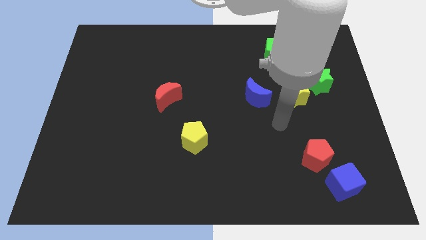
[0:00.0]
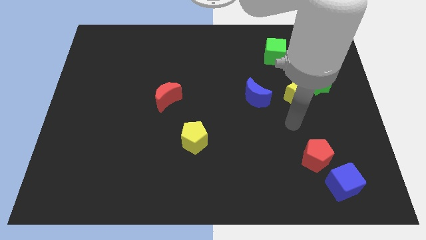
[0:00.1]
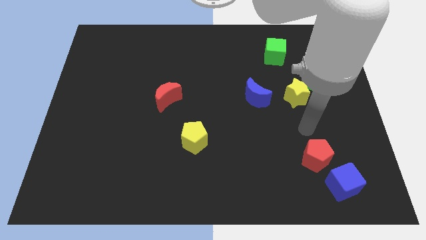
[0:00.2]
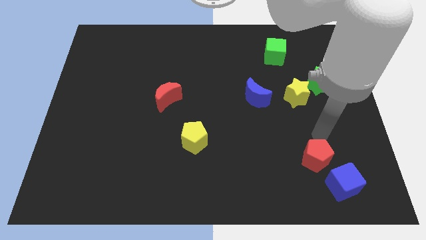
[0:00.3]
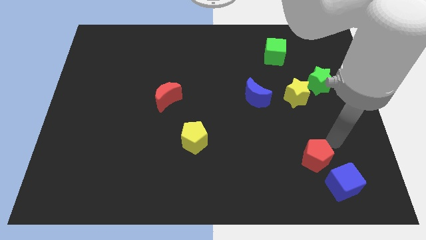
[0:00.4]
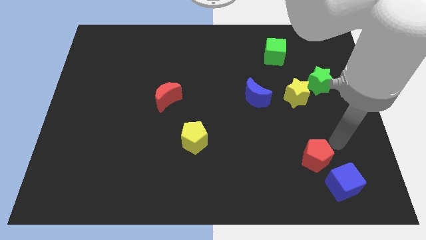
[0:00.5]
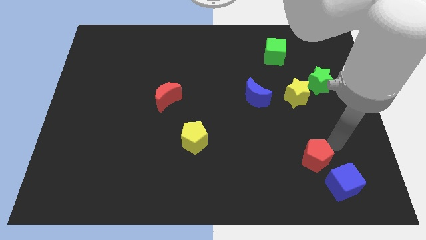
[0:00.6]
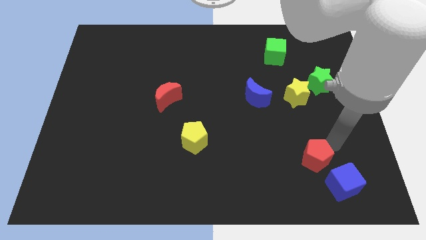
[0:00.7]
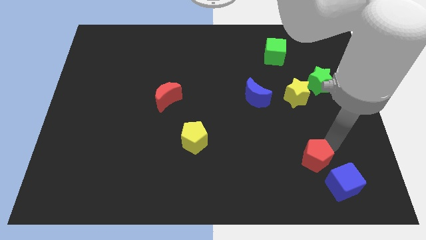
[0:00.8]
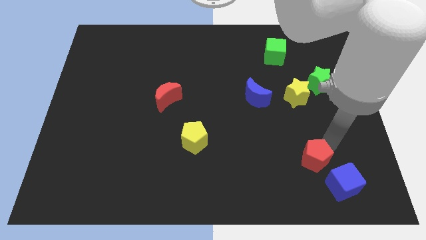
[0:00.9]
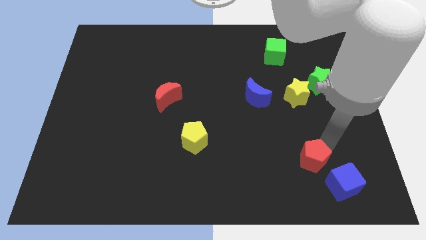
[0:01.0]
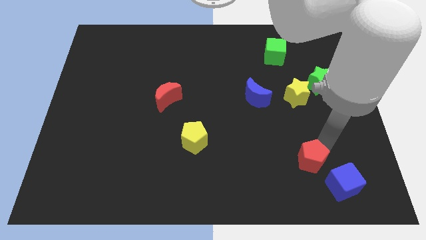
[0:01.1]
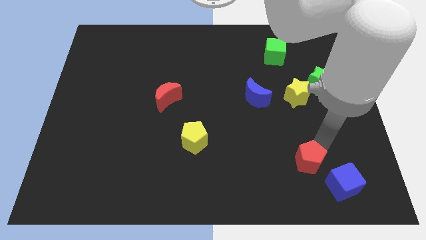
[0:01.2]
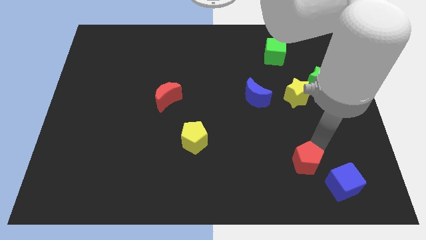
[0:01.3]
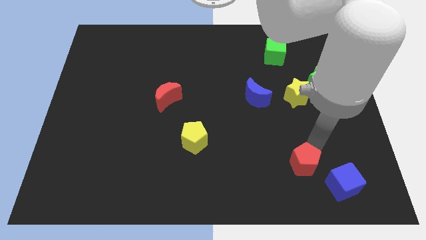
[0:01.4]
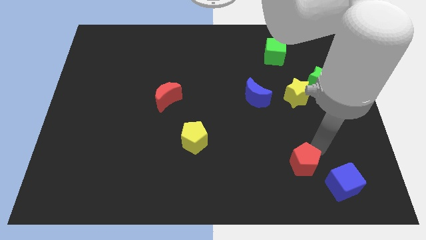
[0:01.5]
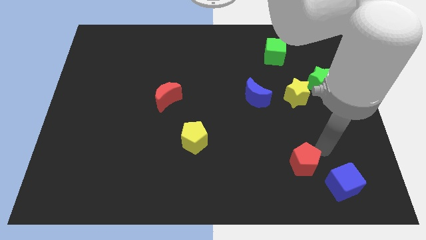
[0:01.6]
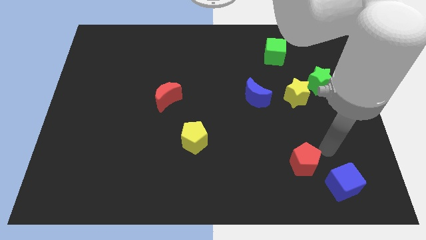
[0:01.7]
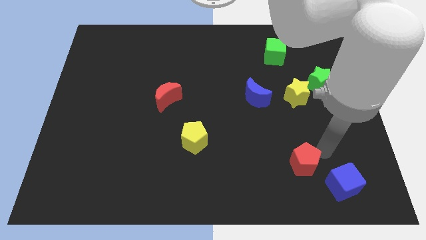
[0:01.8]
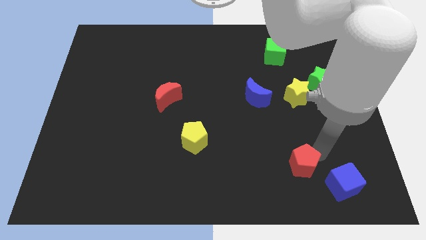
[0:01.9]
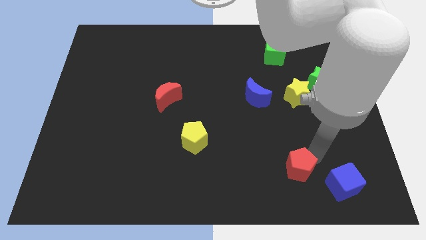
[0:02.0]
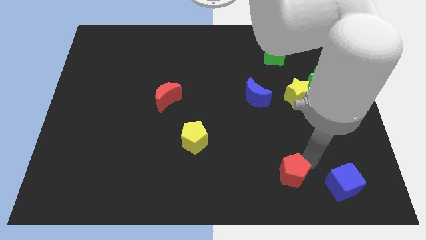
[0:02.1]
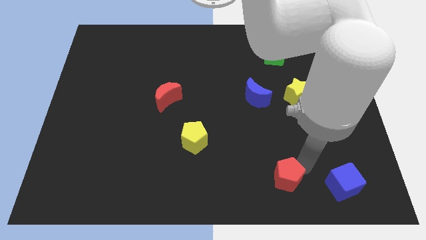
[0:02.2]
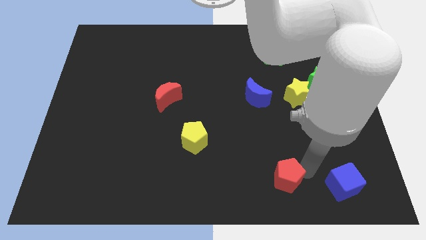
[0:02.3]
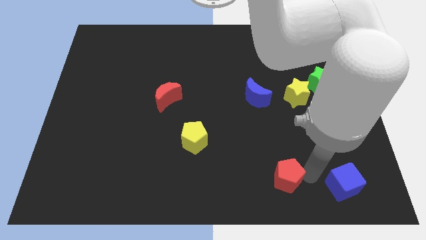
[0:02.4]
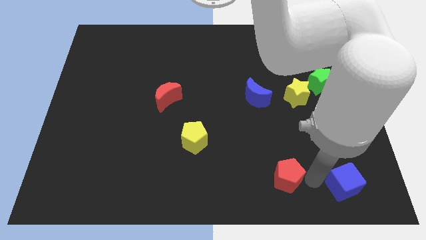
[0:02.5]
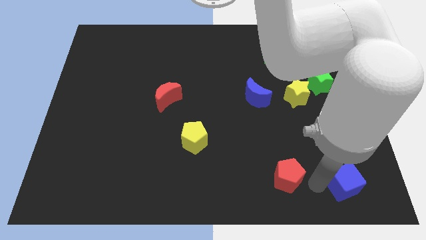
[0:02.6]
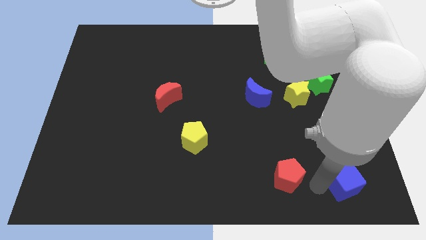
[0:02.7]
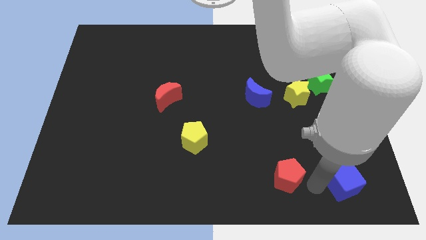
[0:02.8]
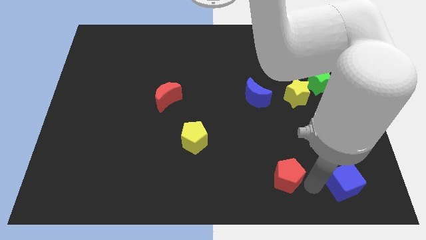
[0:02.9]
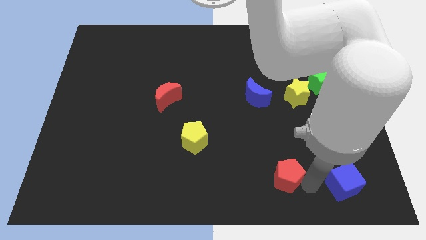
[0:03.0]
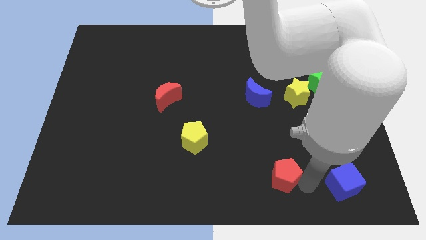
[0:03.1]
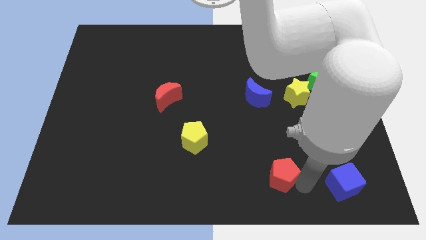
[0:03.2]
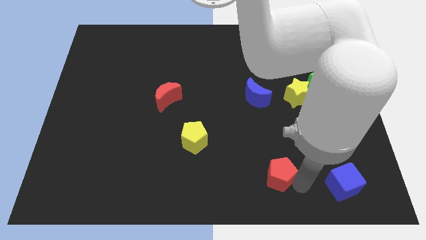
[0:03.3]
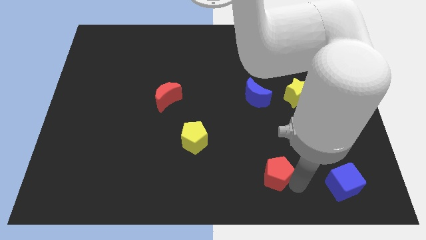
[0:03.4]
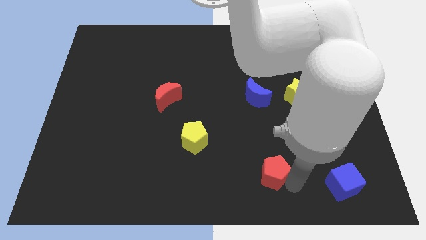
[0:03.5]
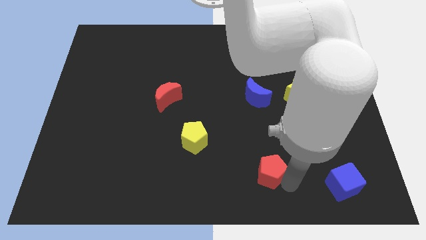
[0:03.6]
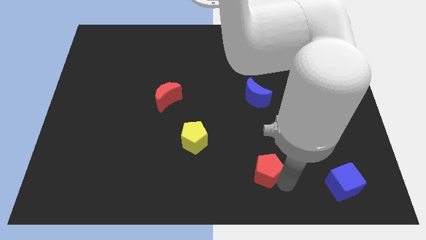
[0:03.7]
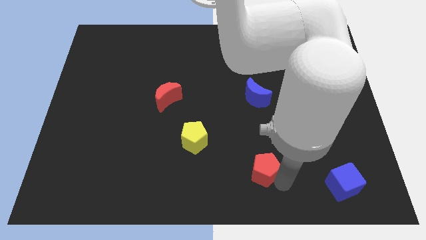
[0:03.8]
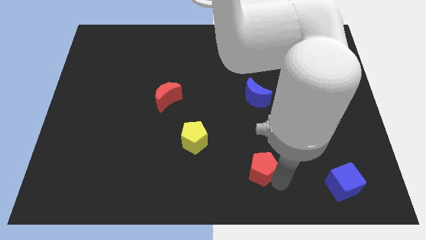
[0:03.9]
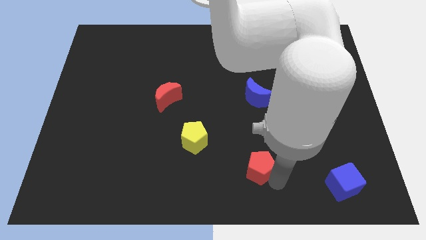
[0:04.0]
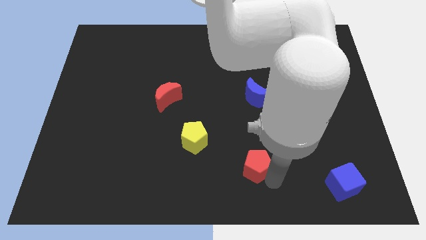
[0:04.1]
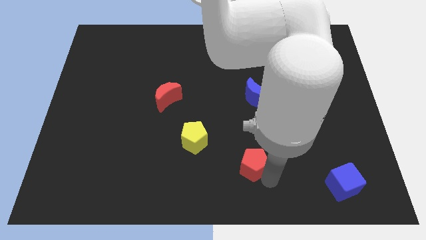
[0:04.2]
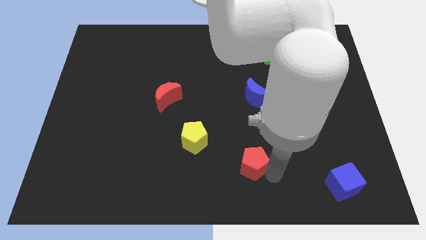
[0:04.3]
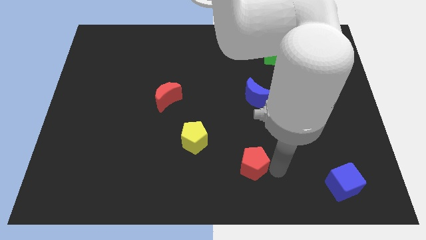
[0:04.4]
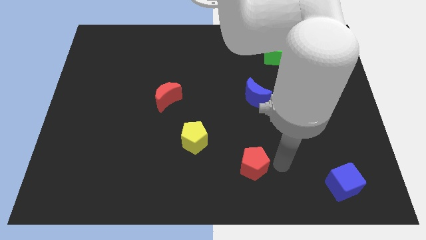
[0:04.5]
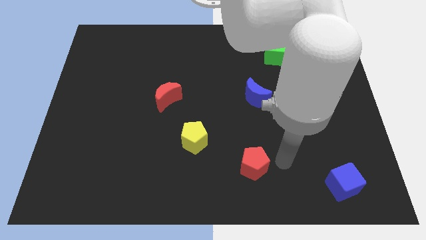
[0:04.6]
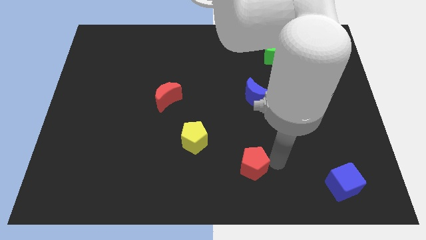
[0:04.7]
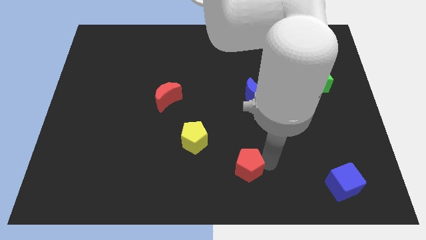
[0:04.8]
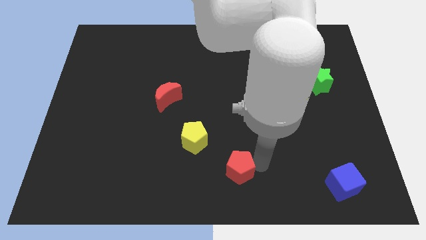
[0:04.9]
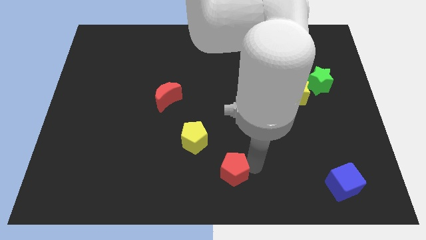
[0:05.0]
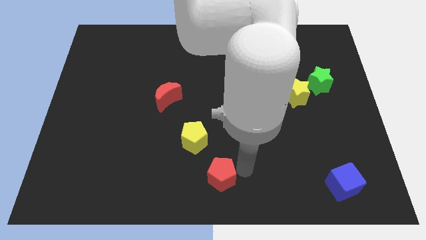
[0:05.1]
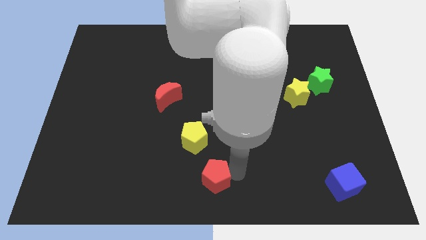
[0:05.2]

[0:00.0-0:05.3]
push the red pentagon left

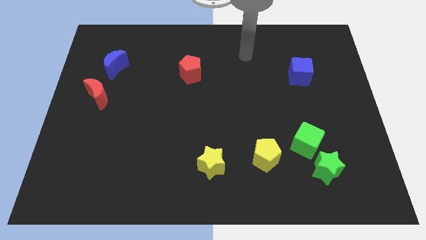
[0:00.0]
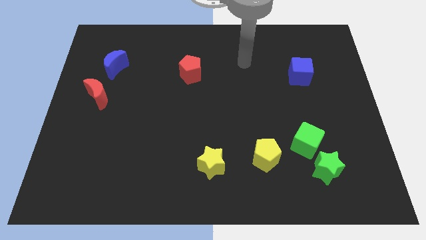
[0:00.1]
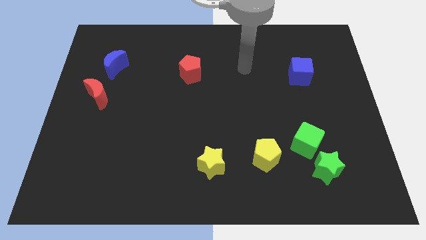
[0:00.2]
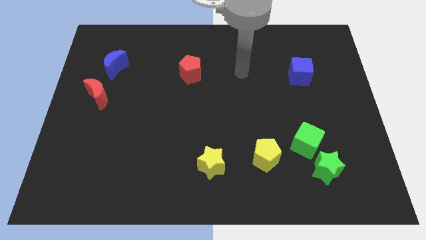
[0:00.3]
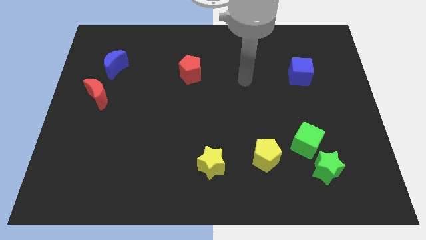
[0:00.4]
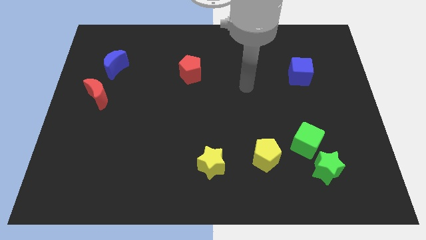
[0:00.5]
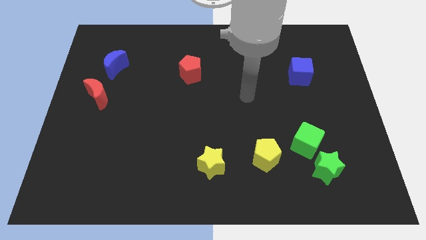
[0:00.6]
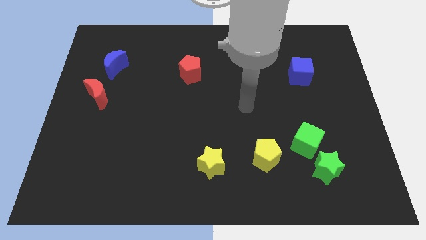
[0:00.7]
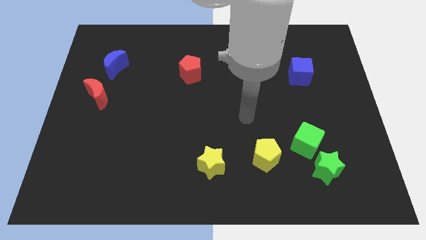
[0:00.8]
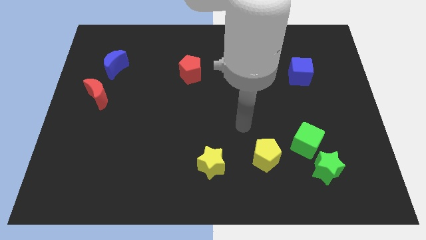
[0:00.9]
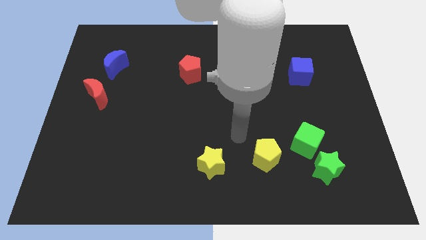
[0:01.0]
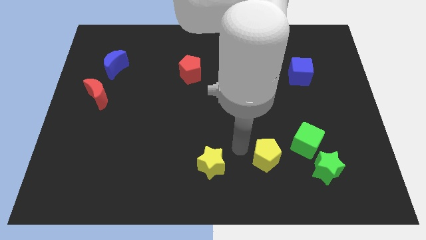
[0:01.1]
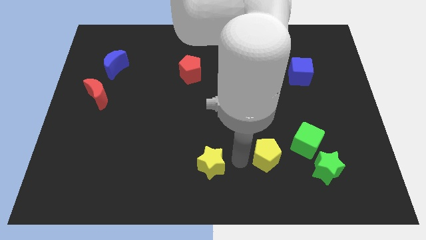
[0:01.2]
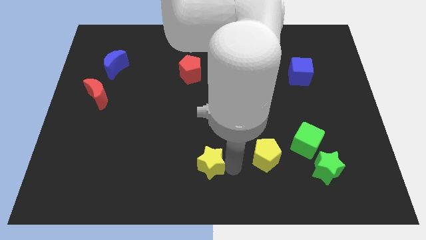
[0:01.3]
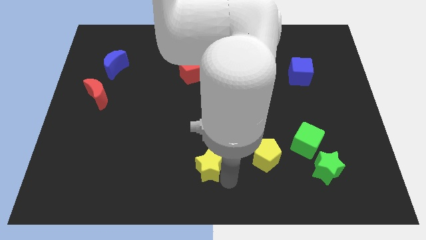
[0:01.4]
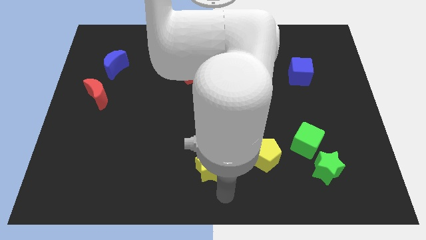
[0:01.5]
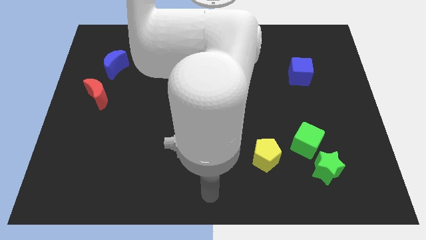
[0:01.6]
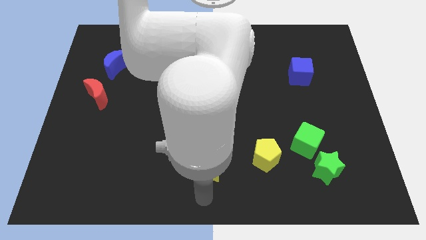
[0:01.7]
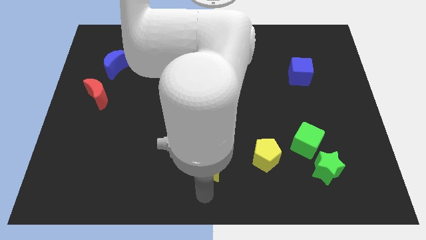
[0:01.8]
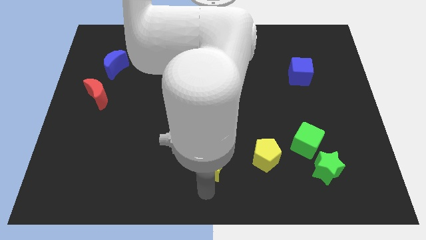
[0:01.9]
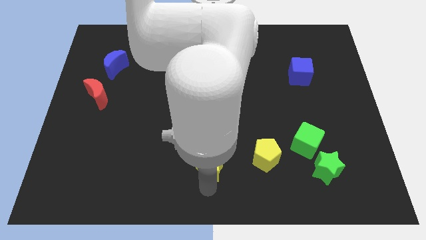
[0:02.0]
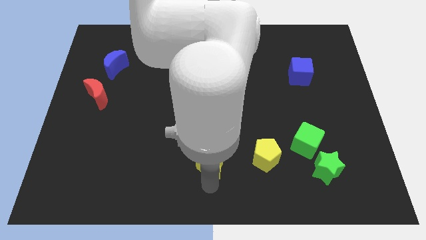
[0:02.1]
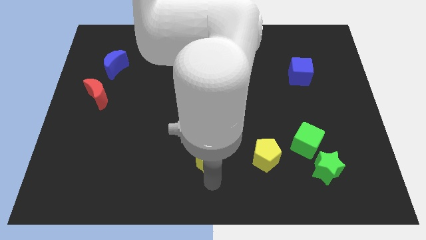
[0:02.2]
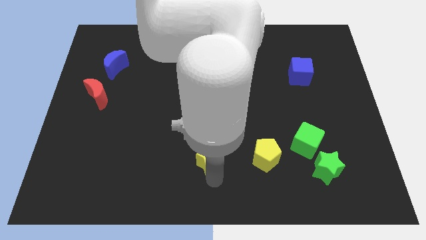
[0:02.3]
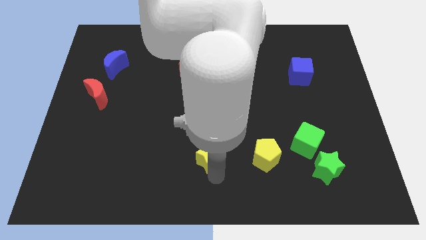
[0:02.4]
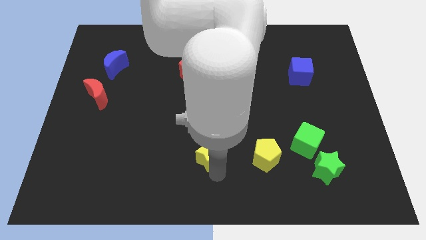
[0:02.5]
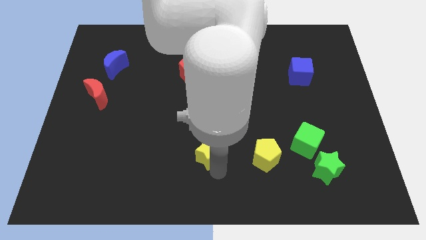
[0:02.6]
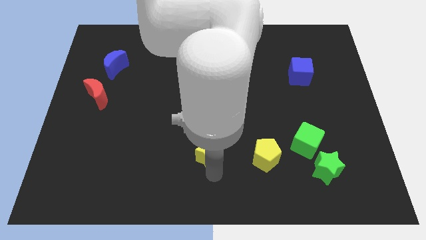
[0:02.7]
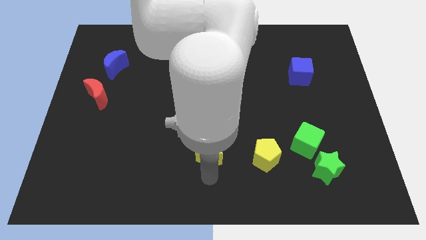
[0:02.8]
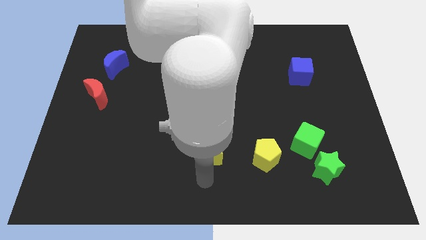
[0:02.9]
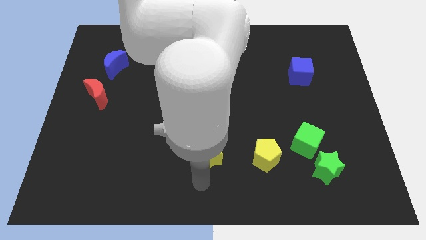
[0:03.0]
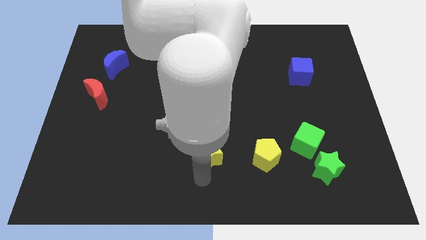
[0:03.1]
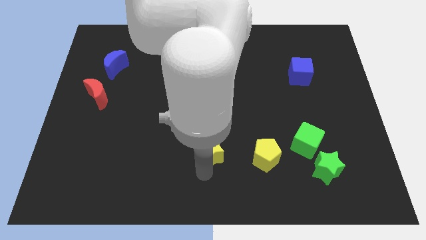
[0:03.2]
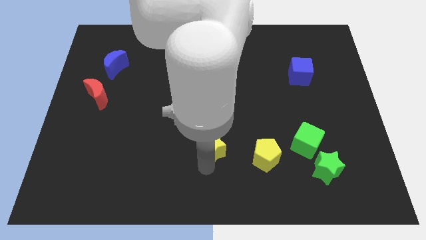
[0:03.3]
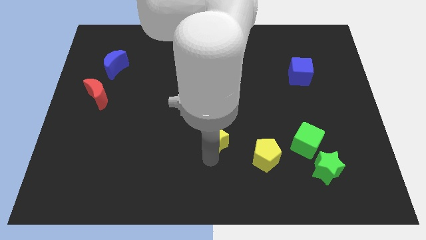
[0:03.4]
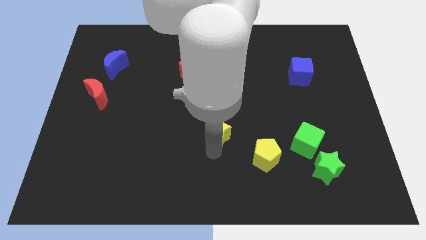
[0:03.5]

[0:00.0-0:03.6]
push the yellow star a bit up
